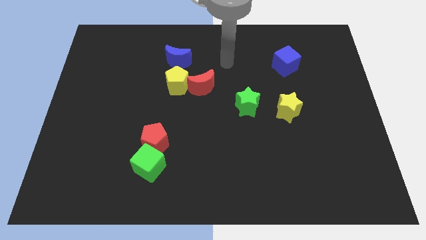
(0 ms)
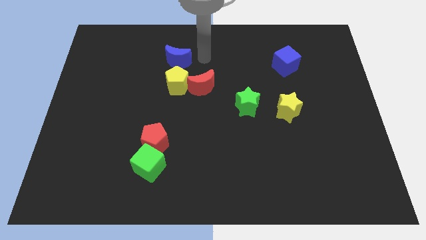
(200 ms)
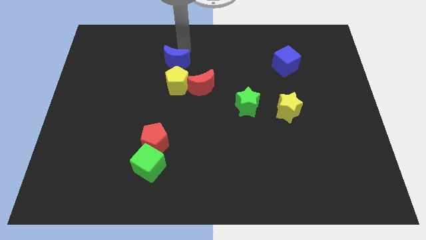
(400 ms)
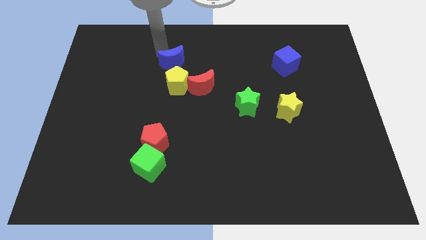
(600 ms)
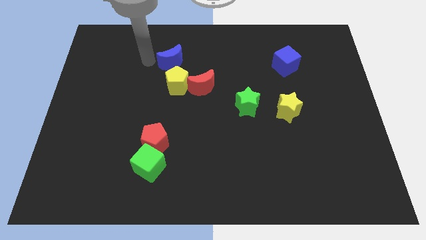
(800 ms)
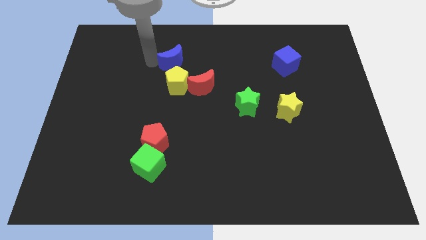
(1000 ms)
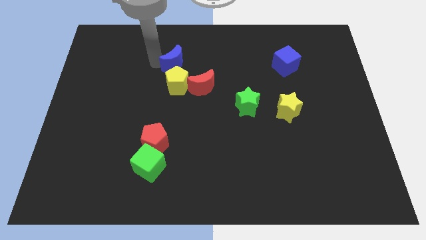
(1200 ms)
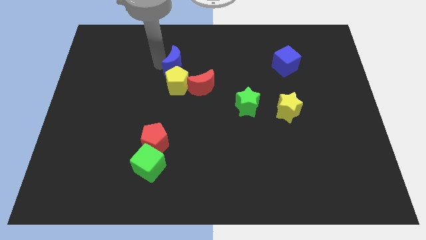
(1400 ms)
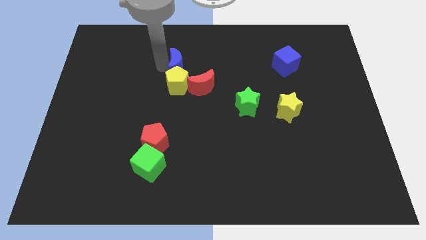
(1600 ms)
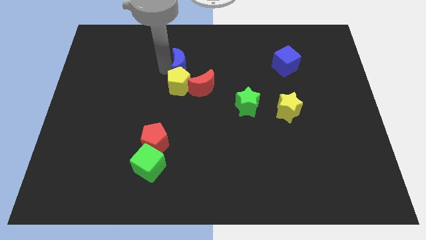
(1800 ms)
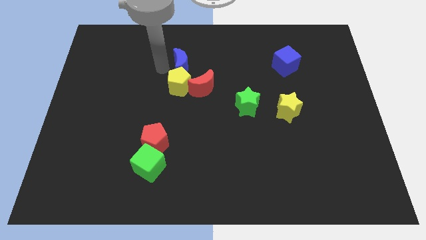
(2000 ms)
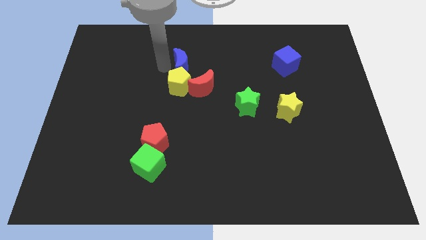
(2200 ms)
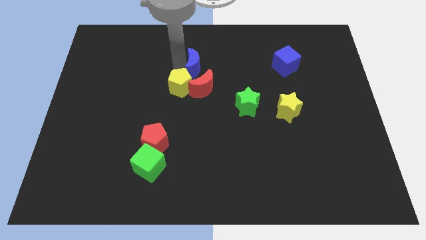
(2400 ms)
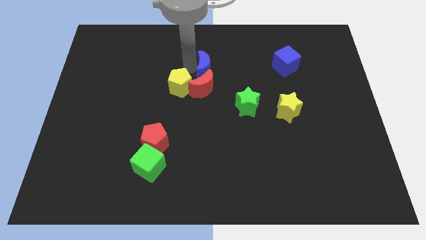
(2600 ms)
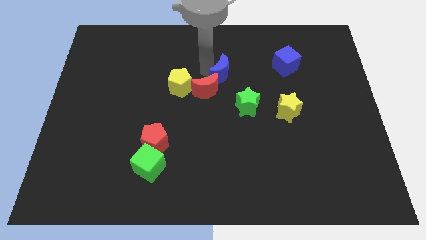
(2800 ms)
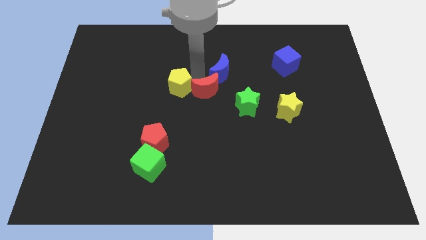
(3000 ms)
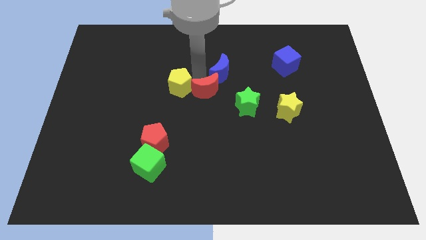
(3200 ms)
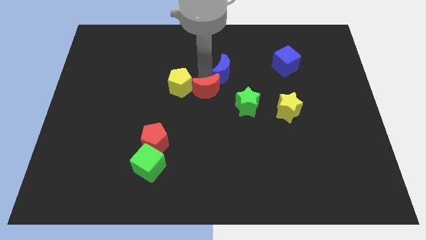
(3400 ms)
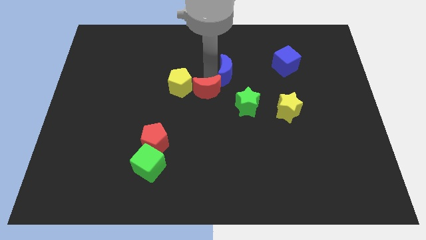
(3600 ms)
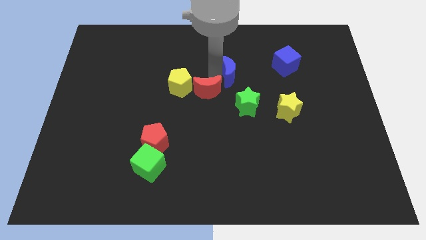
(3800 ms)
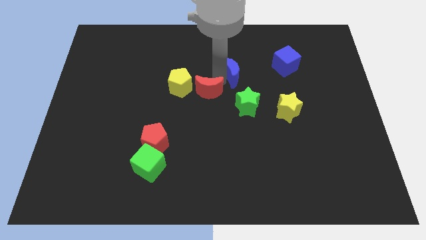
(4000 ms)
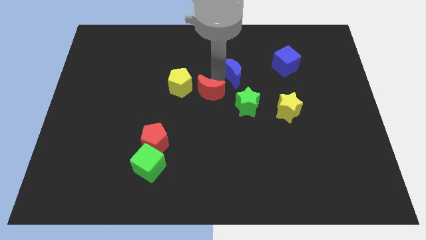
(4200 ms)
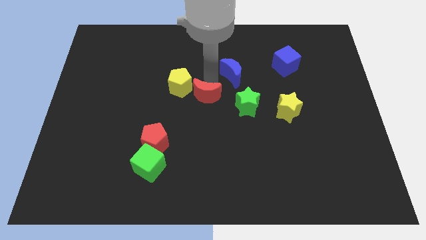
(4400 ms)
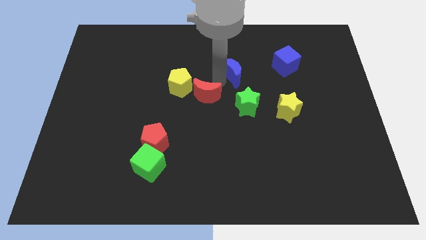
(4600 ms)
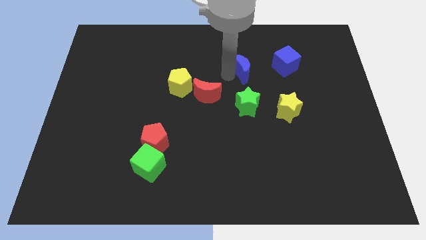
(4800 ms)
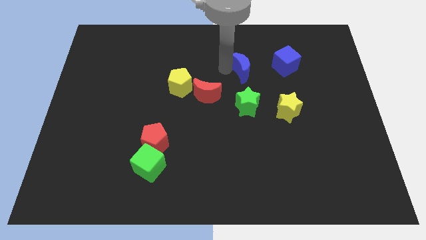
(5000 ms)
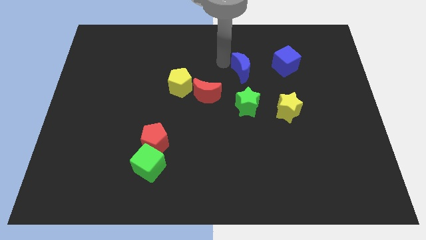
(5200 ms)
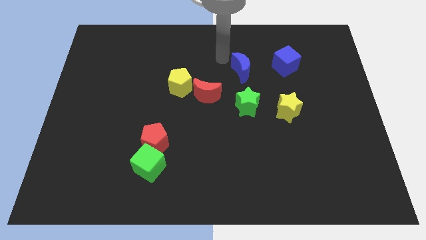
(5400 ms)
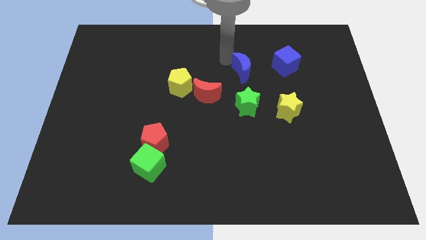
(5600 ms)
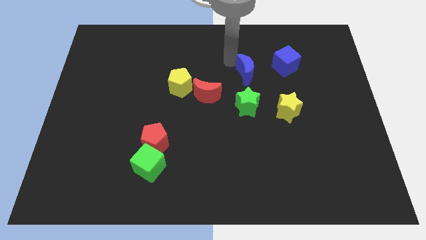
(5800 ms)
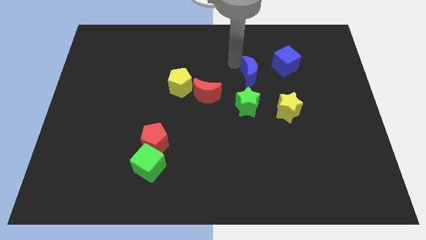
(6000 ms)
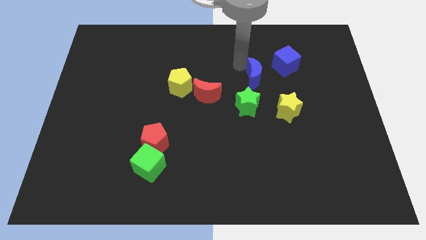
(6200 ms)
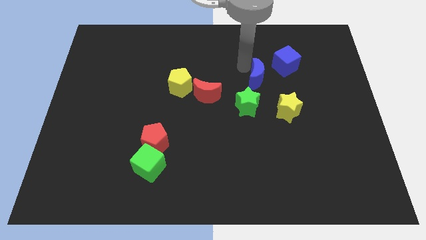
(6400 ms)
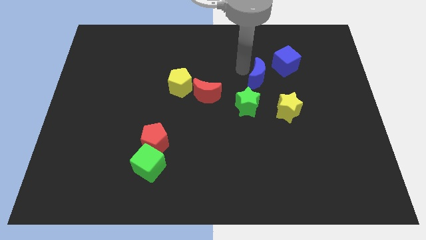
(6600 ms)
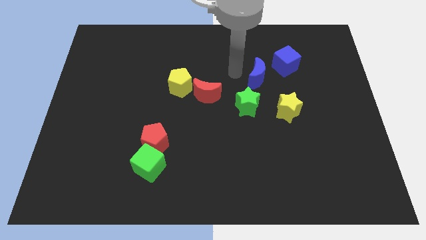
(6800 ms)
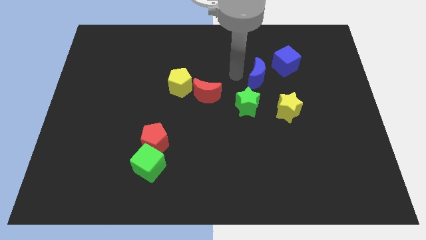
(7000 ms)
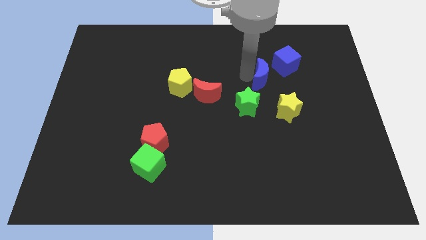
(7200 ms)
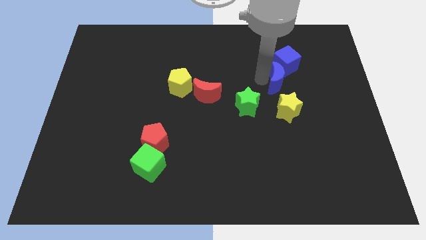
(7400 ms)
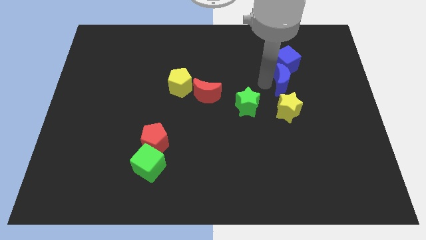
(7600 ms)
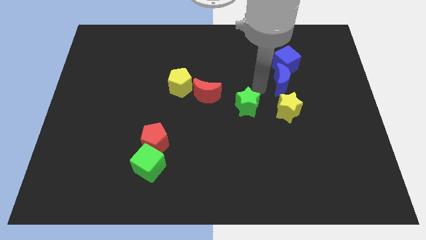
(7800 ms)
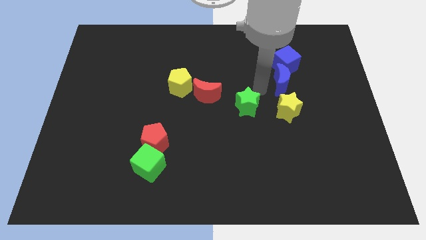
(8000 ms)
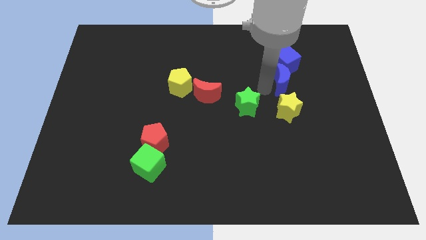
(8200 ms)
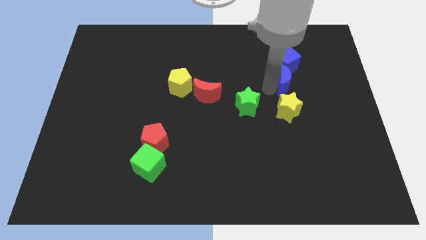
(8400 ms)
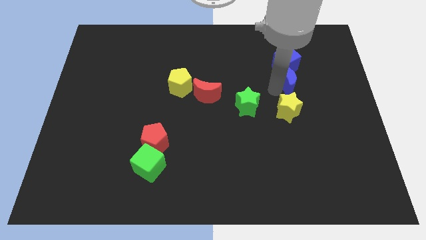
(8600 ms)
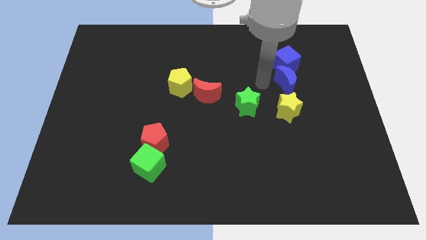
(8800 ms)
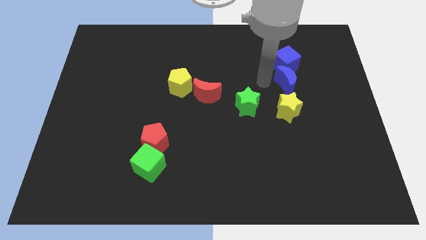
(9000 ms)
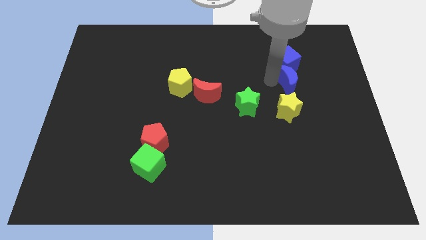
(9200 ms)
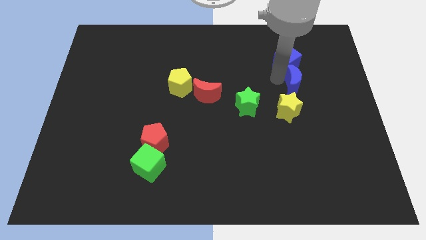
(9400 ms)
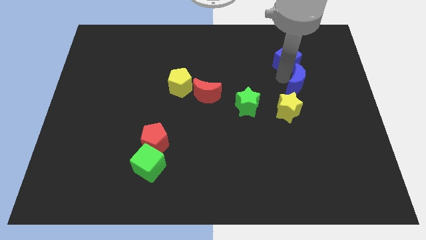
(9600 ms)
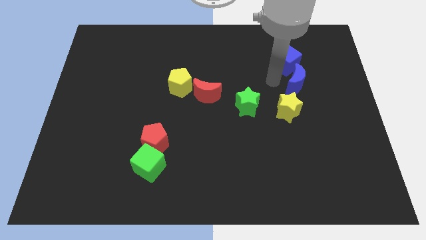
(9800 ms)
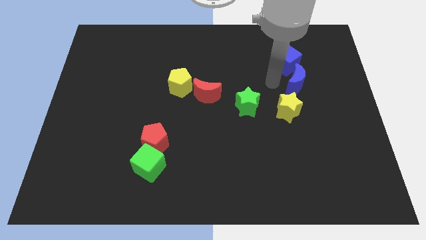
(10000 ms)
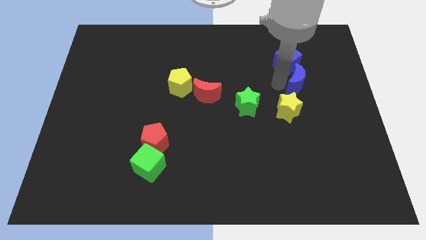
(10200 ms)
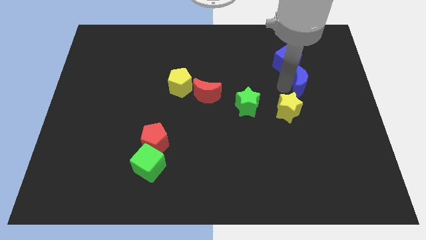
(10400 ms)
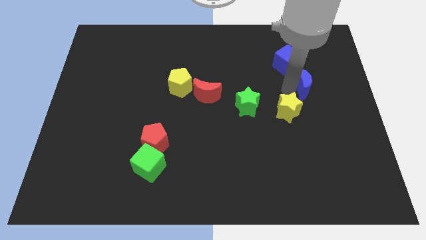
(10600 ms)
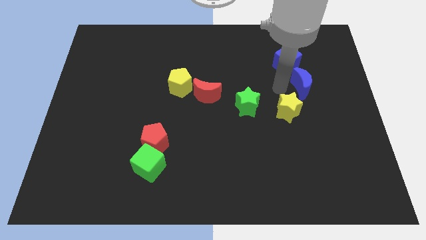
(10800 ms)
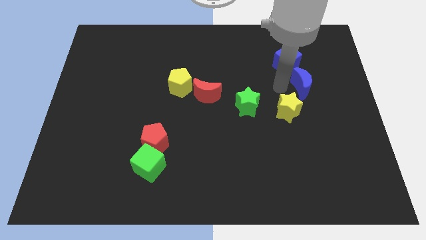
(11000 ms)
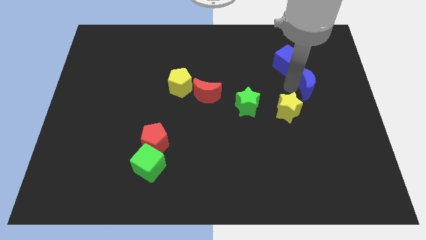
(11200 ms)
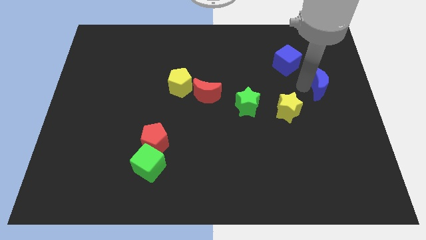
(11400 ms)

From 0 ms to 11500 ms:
push the blue moon to the center right
